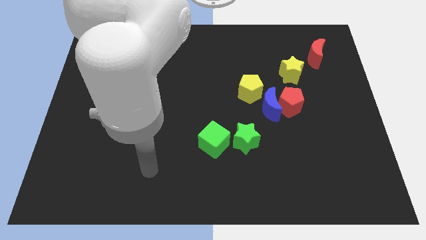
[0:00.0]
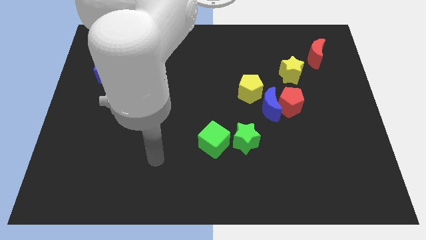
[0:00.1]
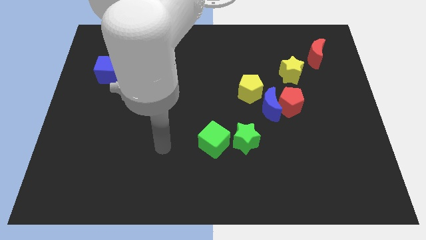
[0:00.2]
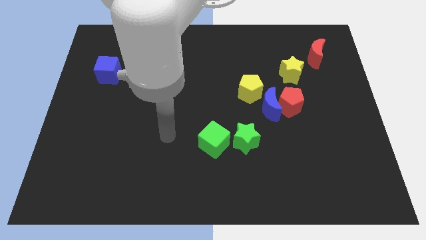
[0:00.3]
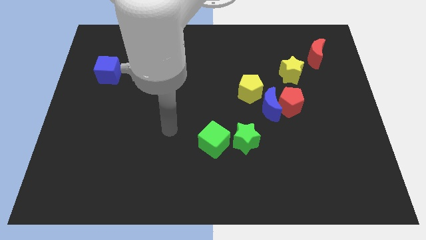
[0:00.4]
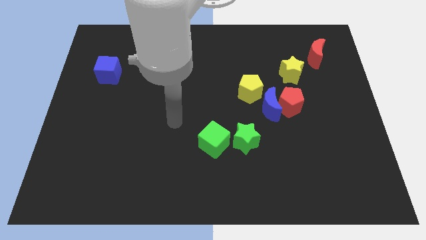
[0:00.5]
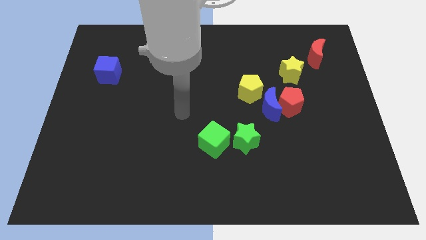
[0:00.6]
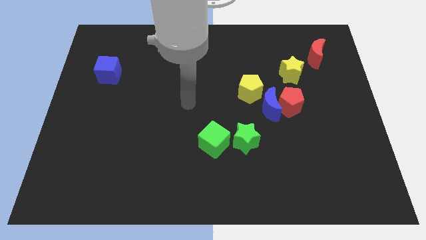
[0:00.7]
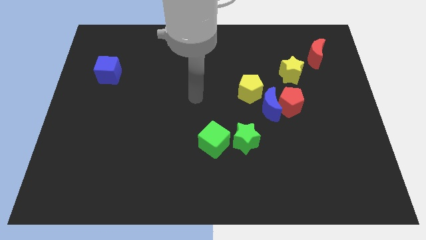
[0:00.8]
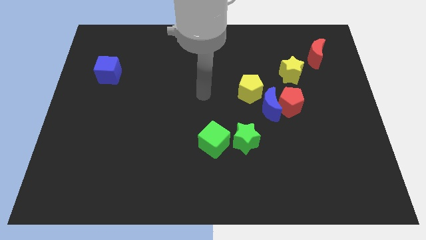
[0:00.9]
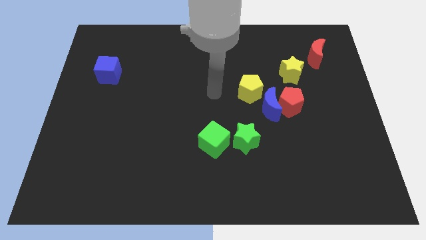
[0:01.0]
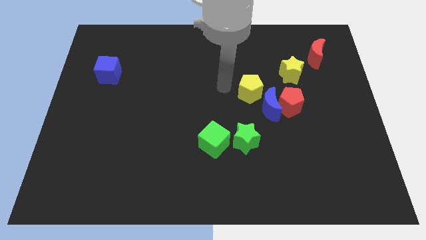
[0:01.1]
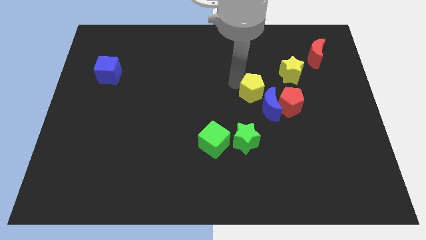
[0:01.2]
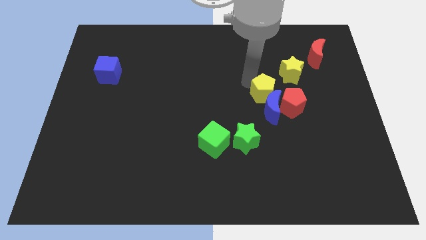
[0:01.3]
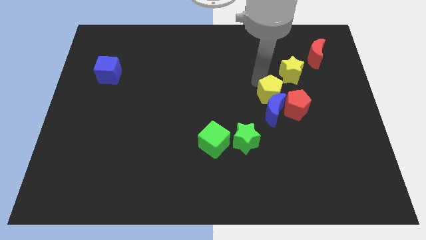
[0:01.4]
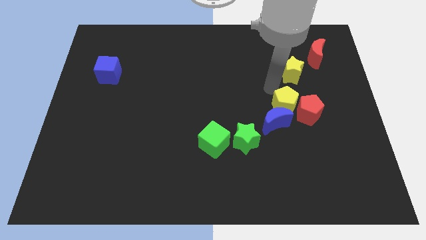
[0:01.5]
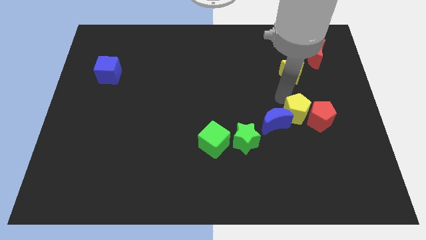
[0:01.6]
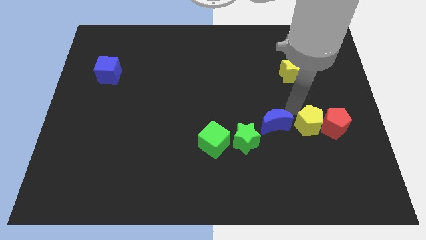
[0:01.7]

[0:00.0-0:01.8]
move the blue moon away from the red pentagon and yellow pentagon

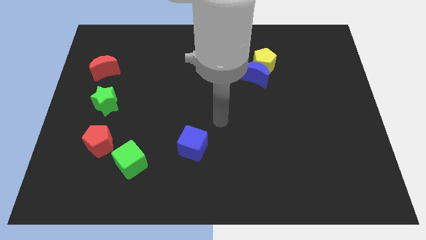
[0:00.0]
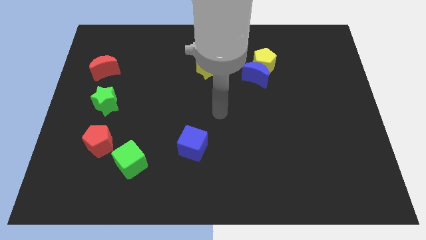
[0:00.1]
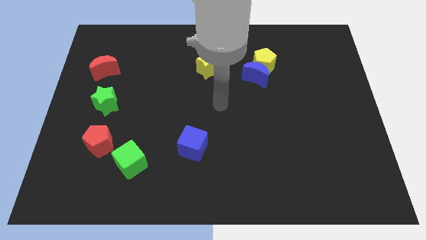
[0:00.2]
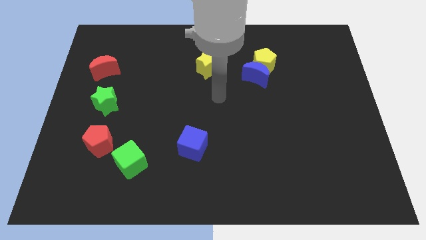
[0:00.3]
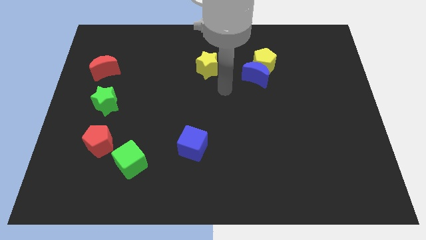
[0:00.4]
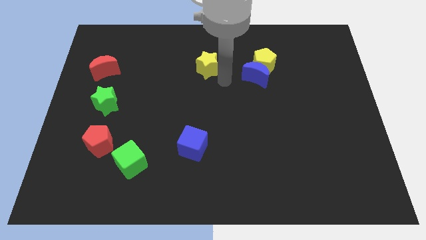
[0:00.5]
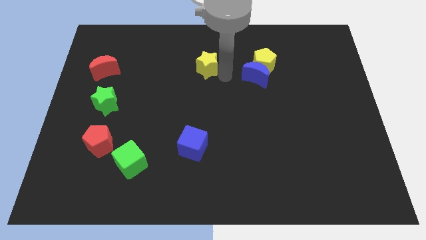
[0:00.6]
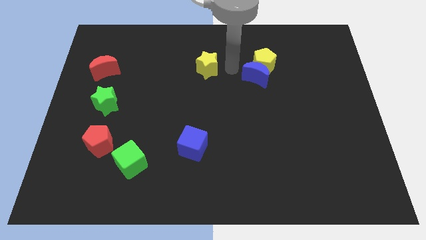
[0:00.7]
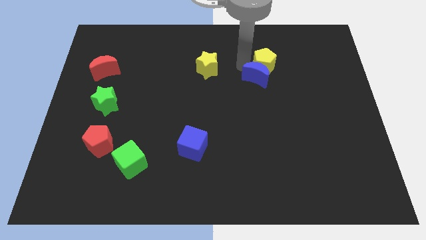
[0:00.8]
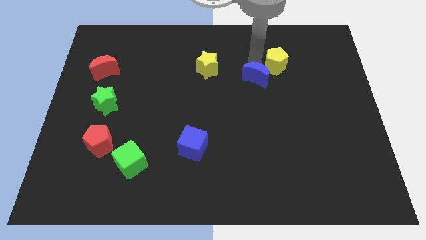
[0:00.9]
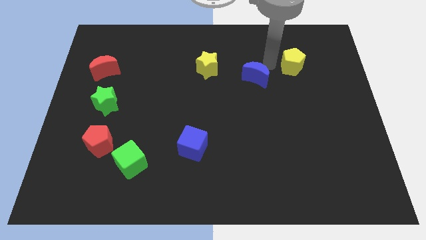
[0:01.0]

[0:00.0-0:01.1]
move the blue moon away from the yellow pentagon

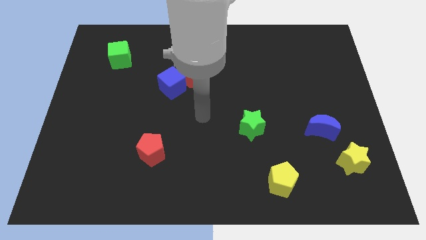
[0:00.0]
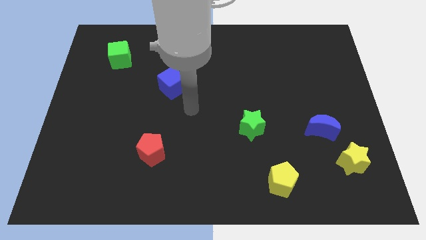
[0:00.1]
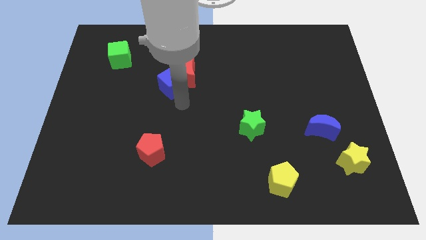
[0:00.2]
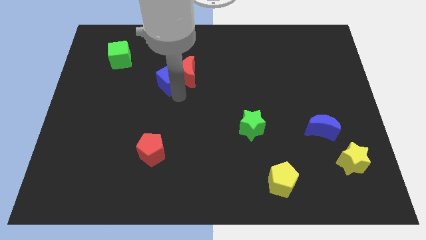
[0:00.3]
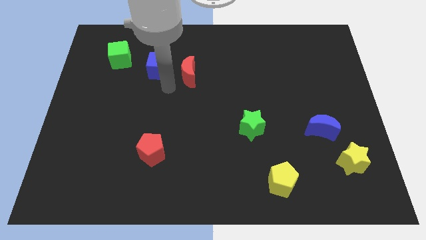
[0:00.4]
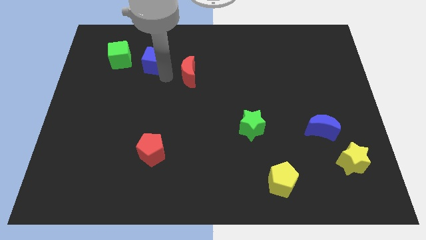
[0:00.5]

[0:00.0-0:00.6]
separate the red moon from the blue cube

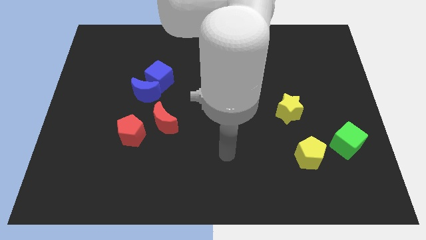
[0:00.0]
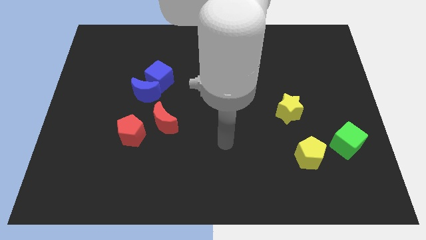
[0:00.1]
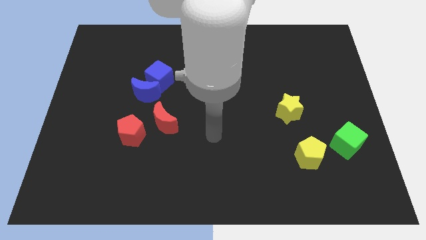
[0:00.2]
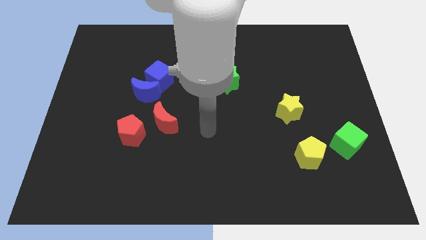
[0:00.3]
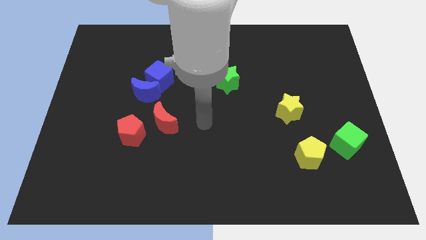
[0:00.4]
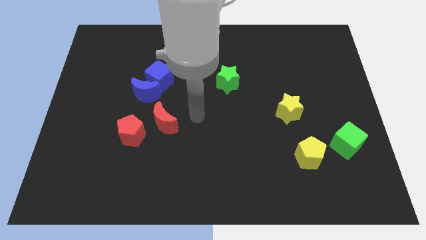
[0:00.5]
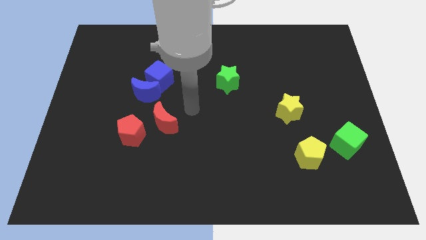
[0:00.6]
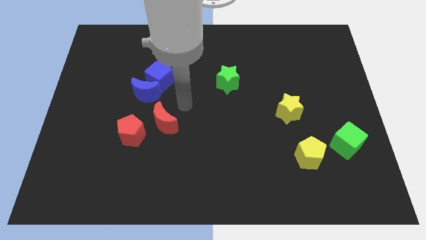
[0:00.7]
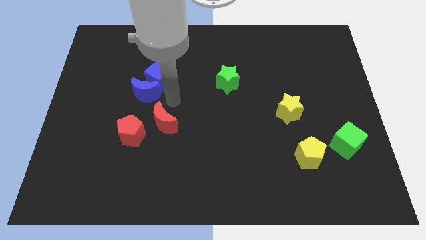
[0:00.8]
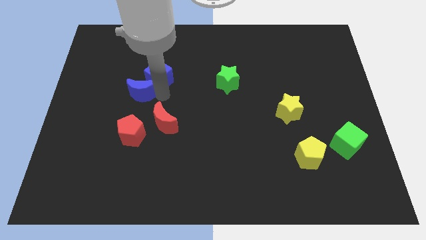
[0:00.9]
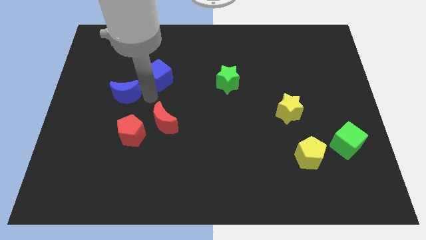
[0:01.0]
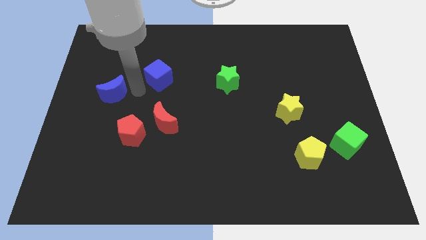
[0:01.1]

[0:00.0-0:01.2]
separate the blue cube from the blue moon

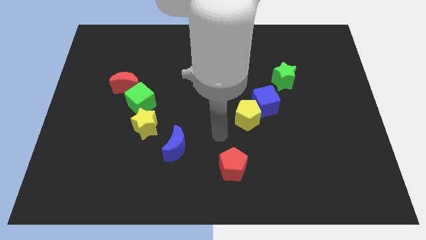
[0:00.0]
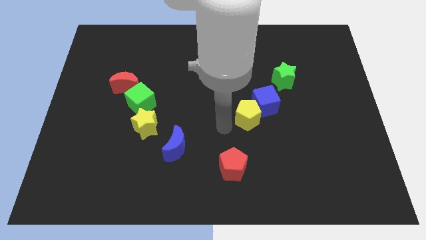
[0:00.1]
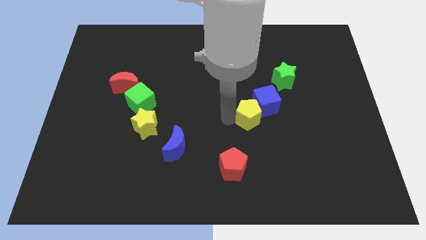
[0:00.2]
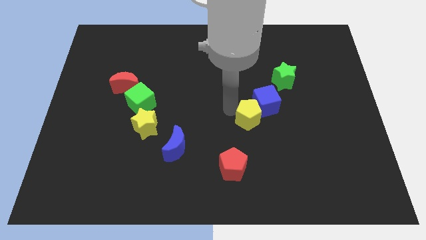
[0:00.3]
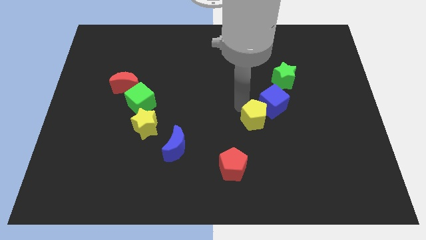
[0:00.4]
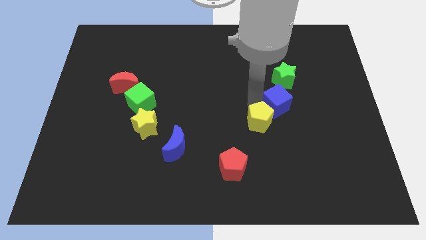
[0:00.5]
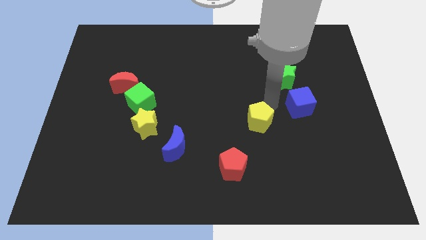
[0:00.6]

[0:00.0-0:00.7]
move the yellow pentagon away from the blue cube

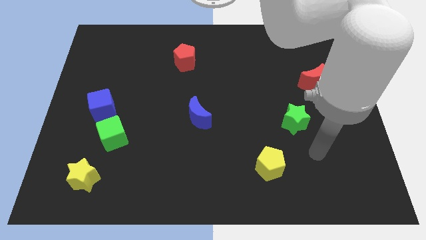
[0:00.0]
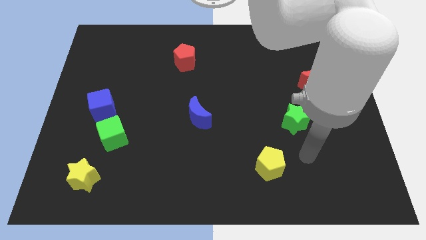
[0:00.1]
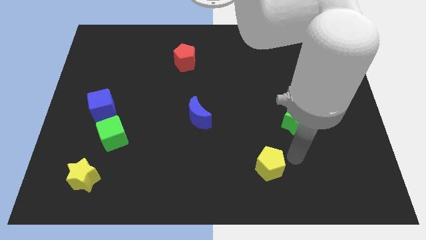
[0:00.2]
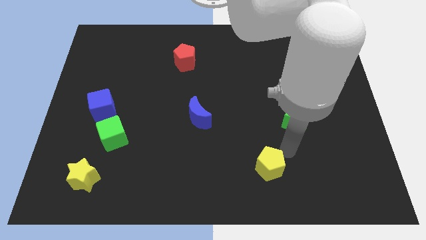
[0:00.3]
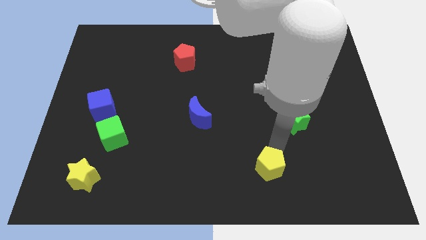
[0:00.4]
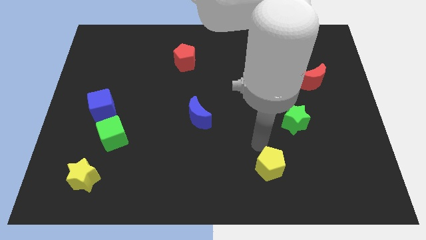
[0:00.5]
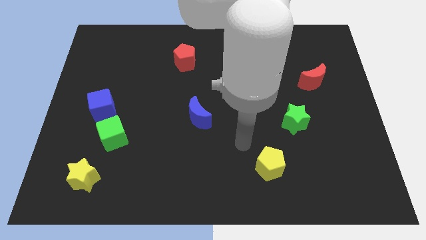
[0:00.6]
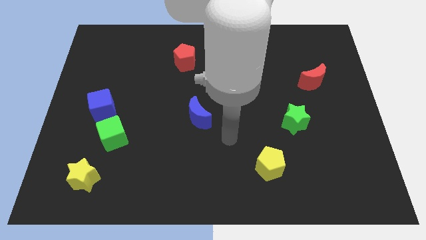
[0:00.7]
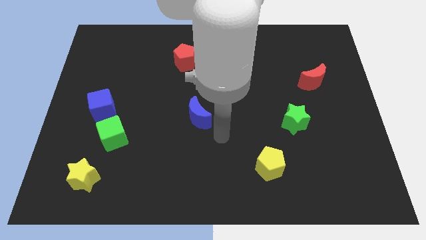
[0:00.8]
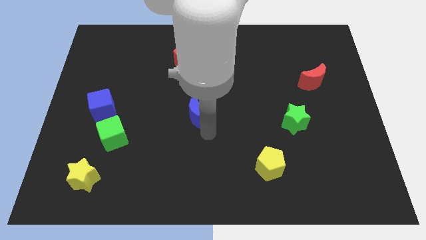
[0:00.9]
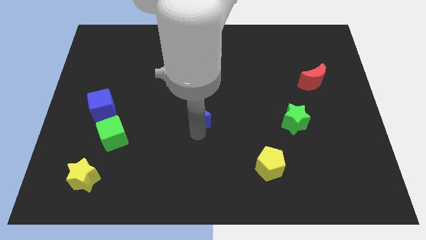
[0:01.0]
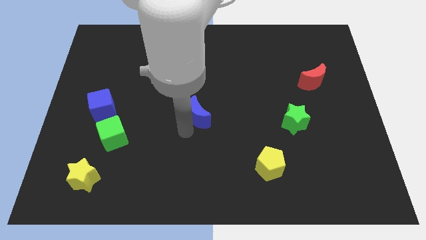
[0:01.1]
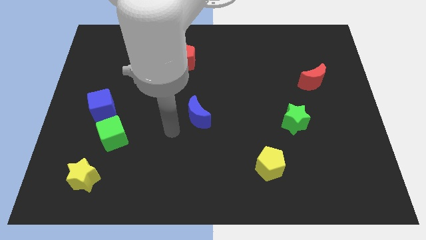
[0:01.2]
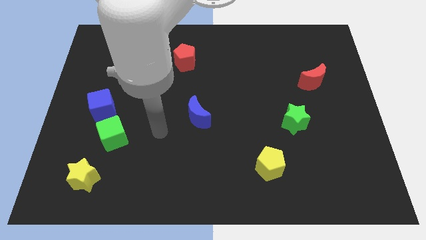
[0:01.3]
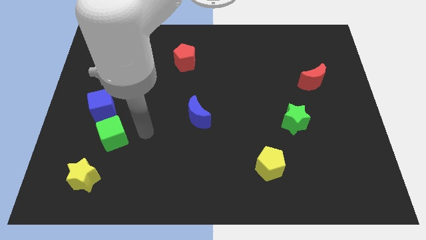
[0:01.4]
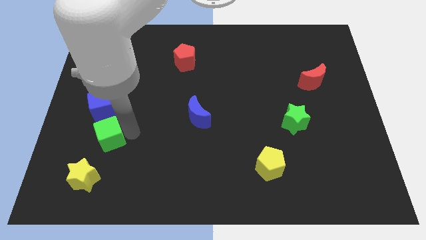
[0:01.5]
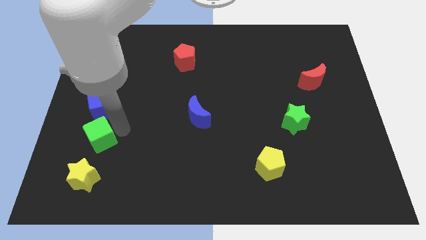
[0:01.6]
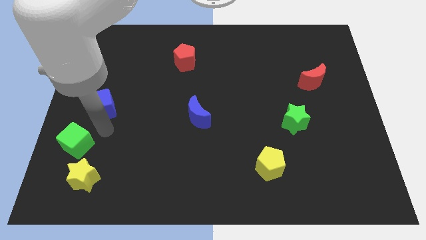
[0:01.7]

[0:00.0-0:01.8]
move the blue cube away from the green cube

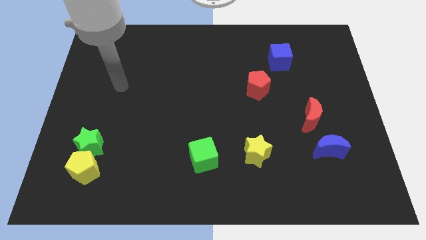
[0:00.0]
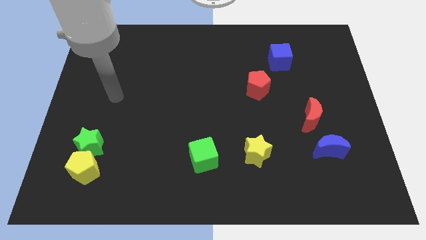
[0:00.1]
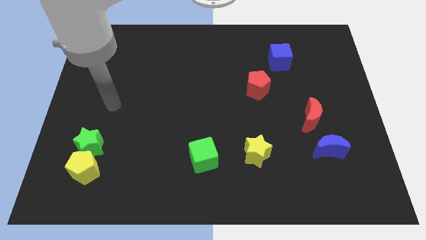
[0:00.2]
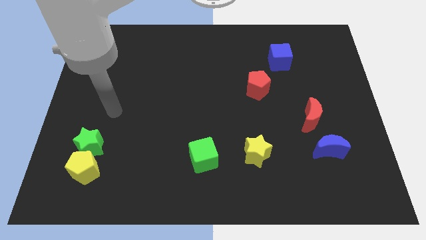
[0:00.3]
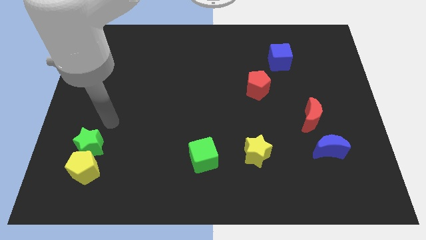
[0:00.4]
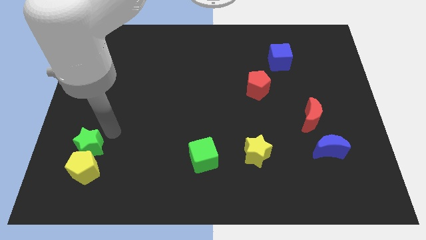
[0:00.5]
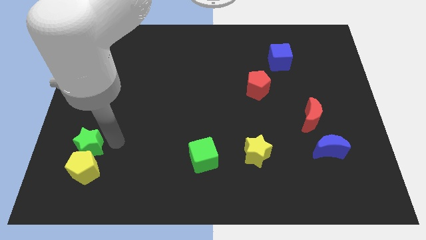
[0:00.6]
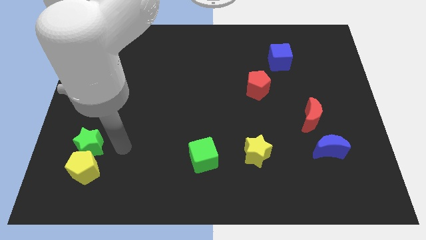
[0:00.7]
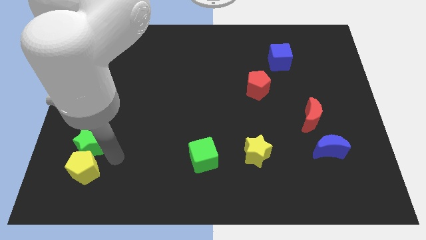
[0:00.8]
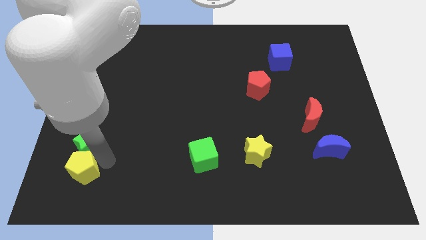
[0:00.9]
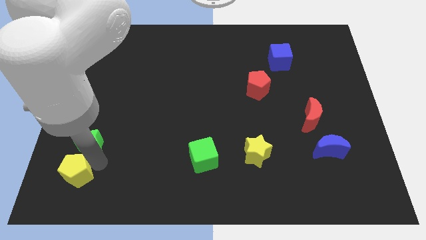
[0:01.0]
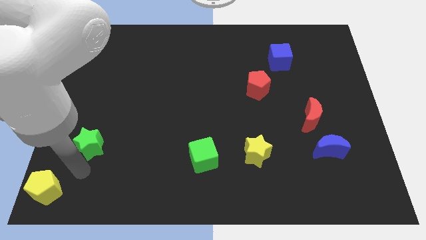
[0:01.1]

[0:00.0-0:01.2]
separate the green star from the yellow pentagon

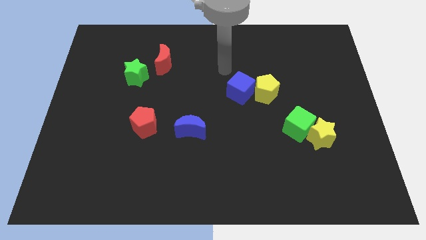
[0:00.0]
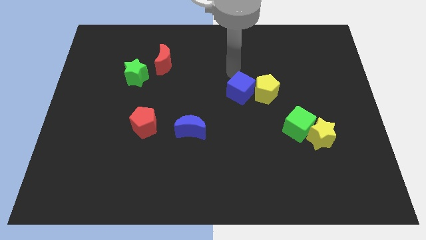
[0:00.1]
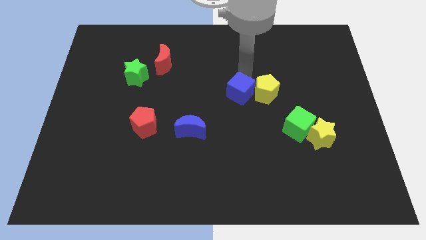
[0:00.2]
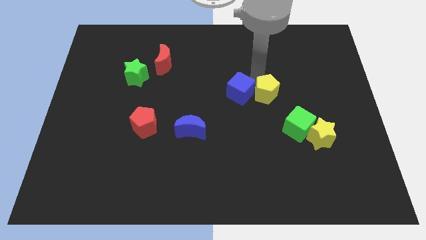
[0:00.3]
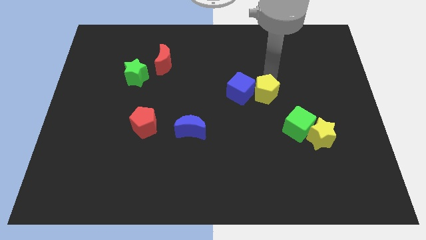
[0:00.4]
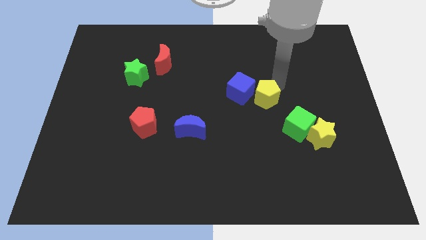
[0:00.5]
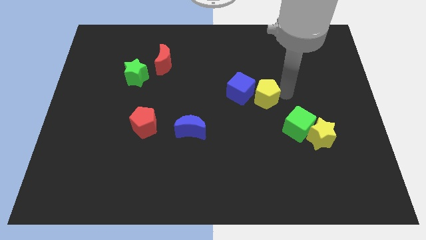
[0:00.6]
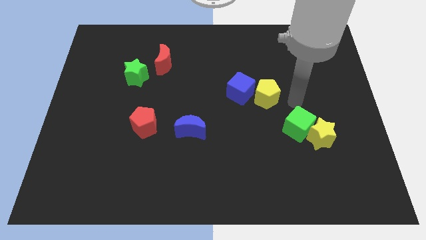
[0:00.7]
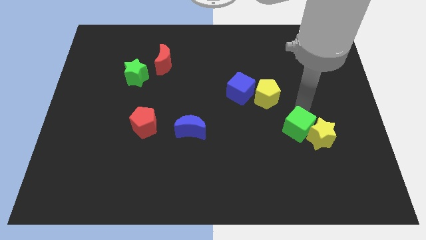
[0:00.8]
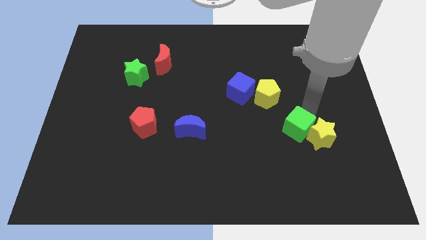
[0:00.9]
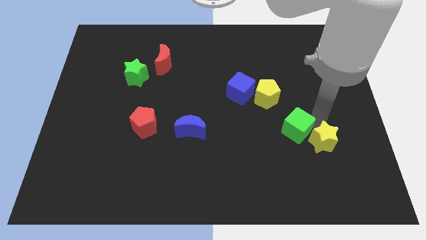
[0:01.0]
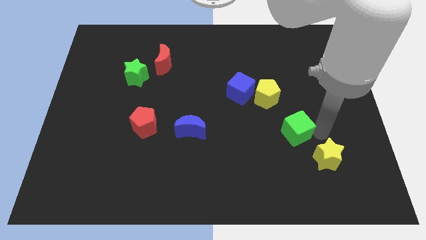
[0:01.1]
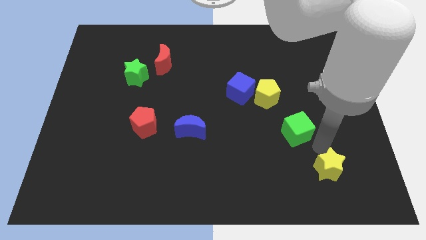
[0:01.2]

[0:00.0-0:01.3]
separate the green cube from the yellow star
